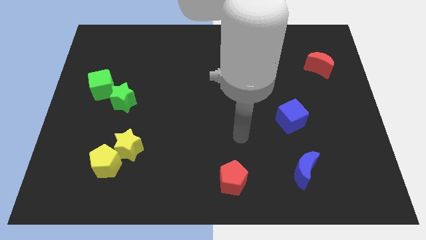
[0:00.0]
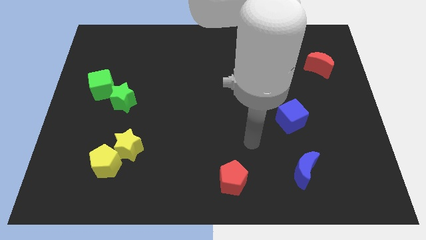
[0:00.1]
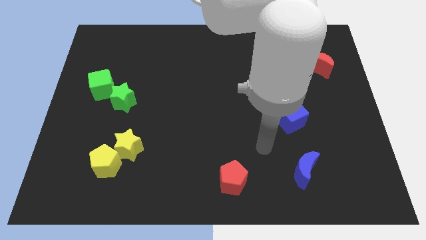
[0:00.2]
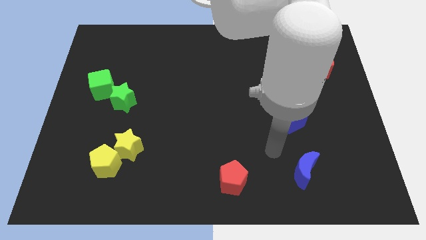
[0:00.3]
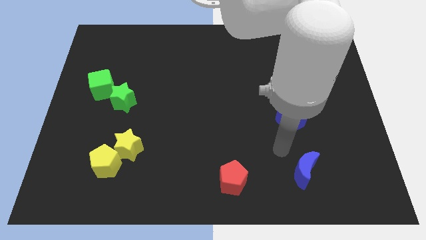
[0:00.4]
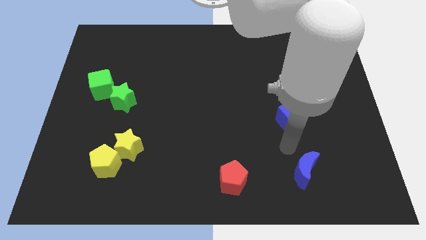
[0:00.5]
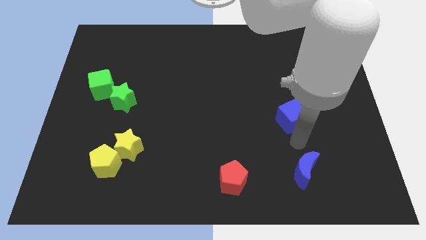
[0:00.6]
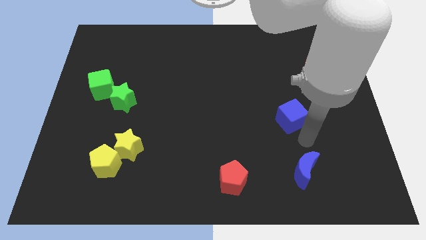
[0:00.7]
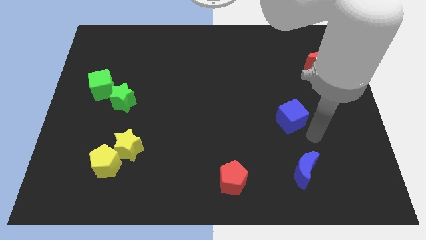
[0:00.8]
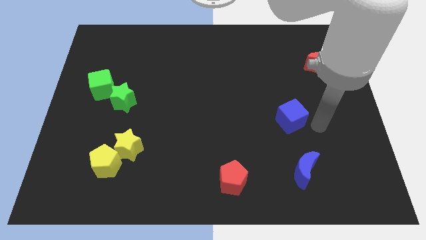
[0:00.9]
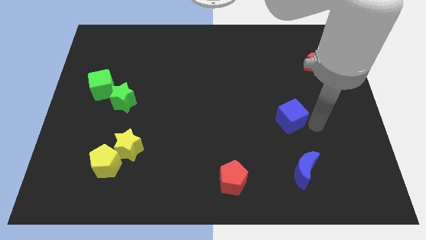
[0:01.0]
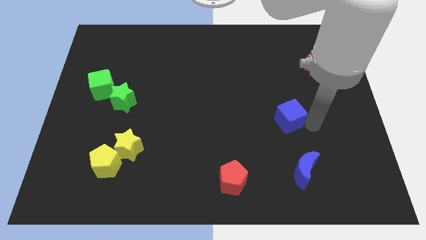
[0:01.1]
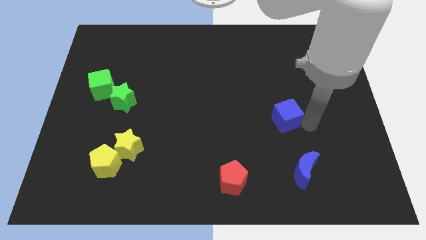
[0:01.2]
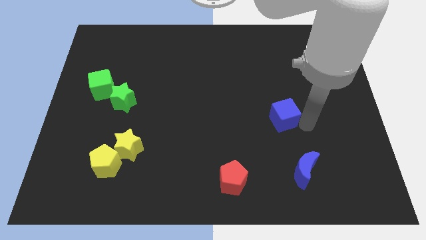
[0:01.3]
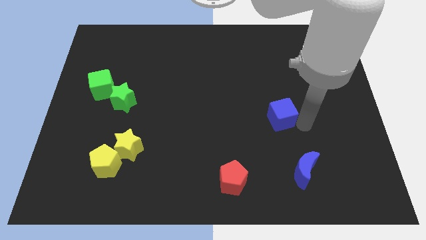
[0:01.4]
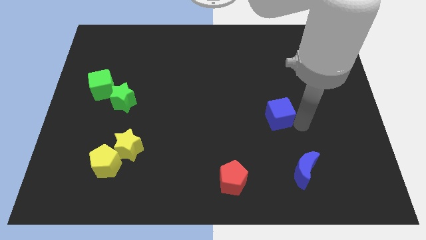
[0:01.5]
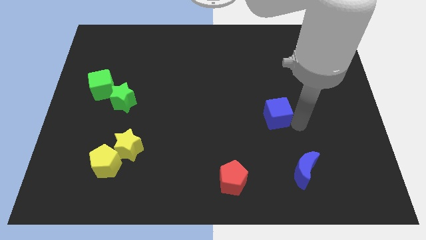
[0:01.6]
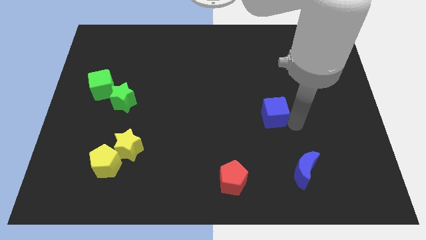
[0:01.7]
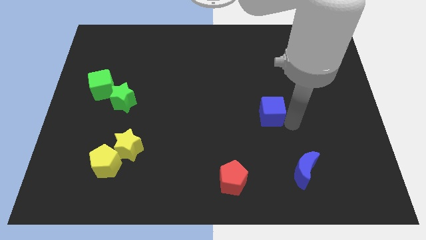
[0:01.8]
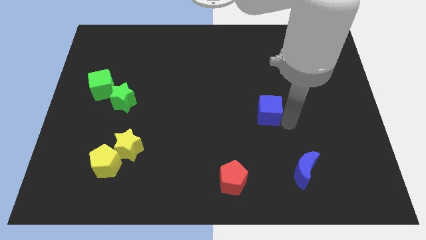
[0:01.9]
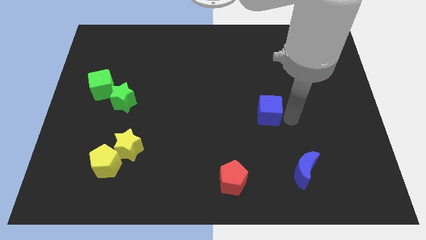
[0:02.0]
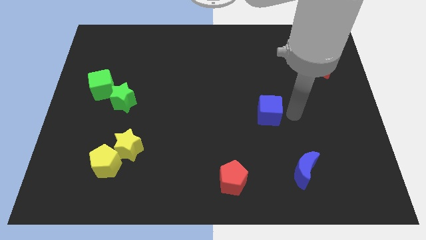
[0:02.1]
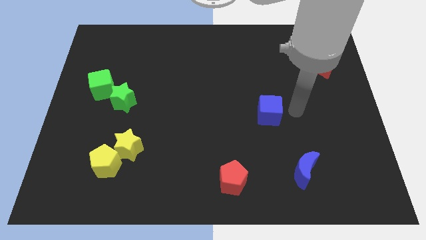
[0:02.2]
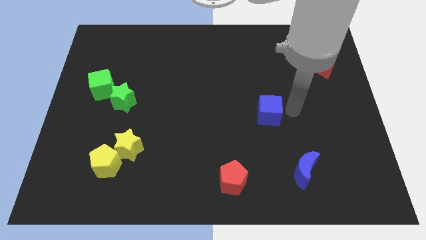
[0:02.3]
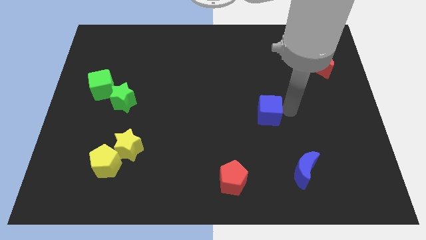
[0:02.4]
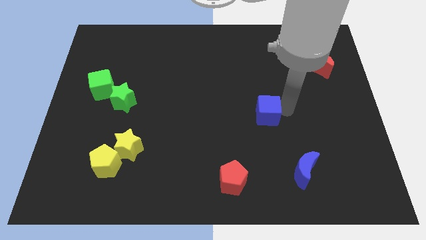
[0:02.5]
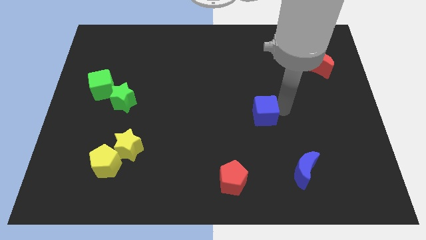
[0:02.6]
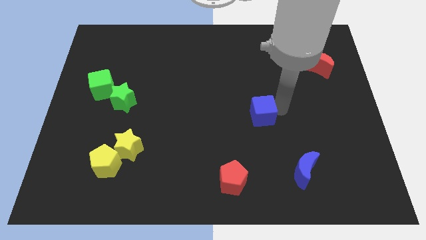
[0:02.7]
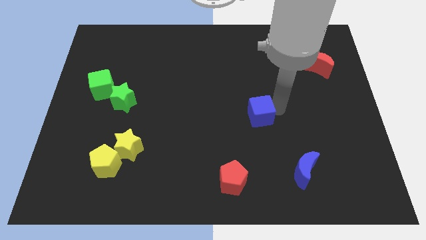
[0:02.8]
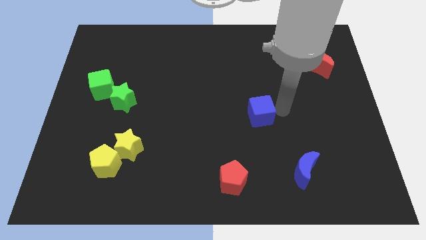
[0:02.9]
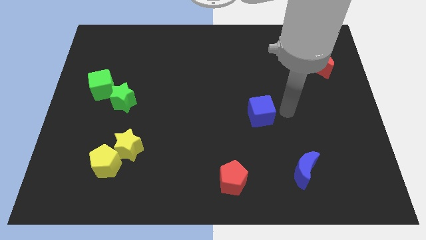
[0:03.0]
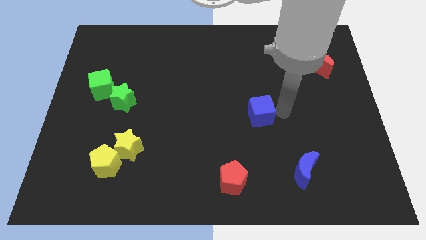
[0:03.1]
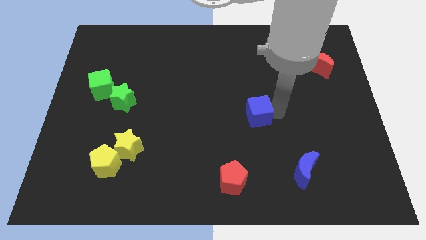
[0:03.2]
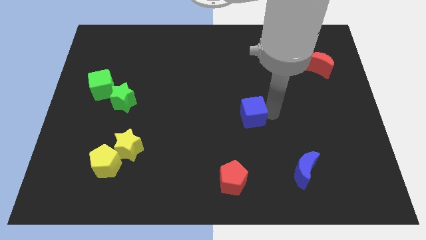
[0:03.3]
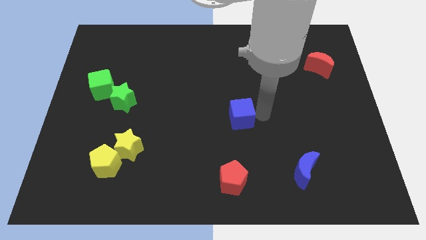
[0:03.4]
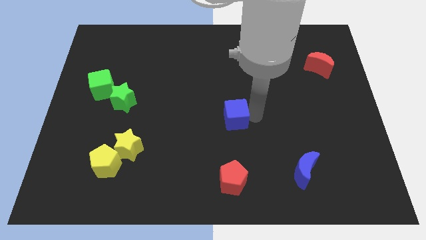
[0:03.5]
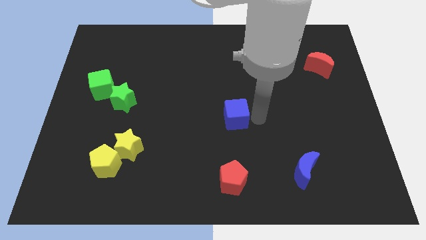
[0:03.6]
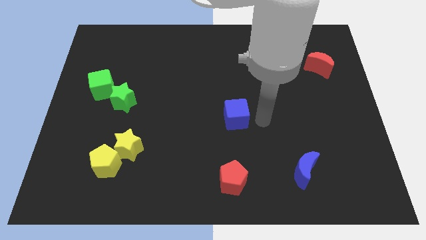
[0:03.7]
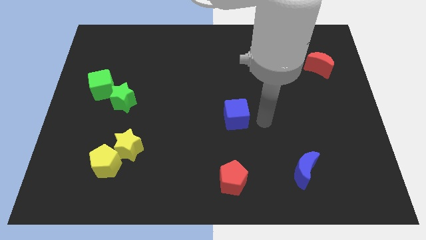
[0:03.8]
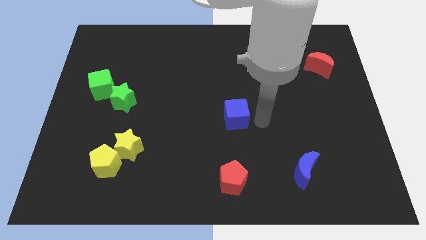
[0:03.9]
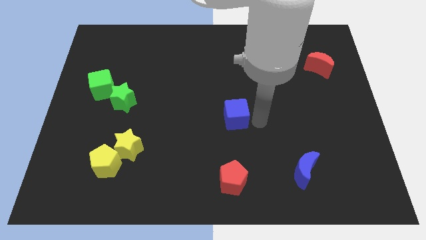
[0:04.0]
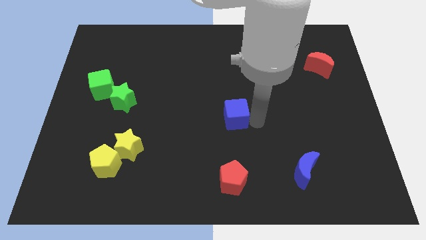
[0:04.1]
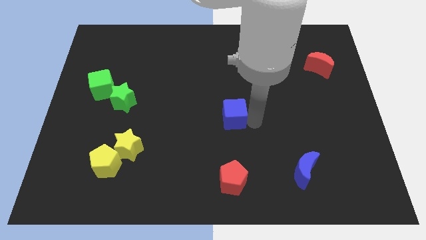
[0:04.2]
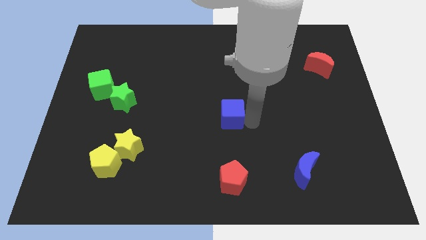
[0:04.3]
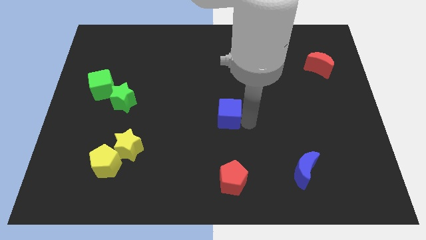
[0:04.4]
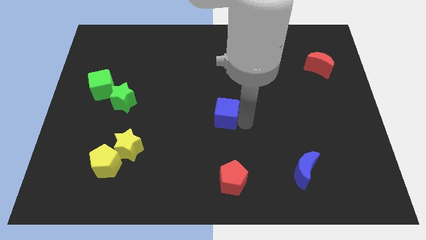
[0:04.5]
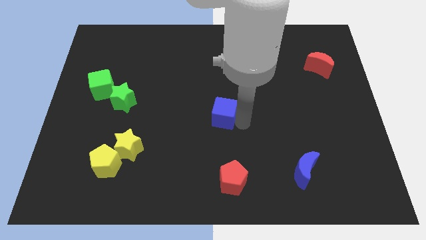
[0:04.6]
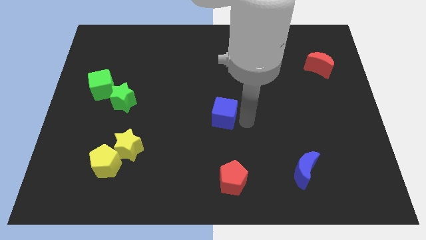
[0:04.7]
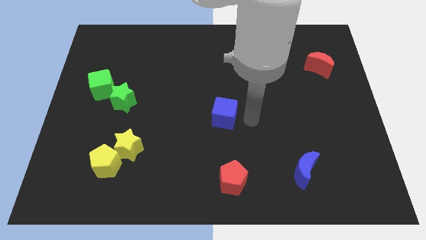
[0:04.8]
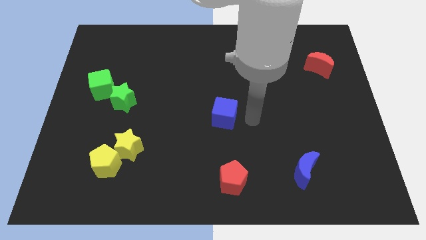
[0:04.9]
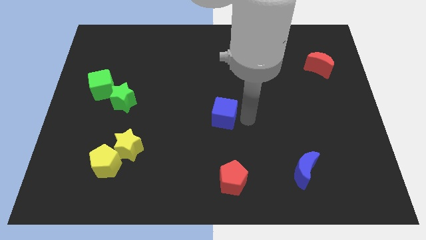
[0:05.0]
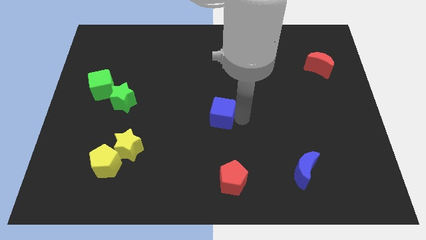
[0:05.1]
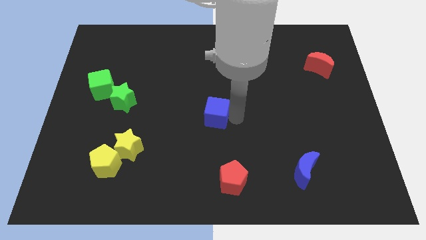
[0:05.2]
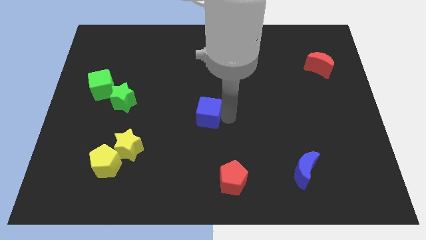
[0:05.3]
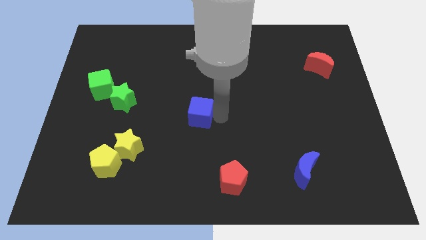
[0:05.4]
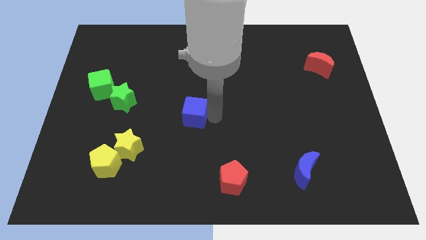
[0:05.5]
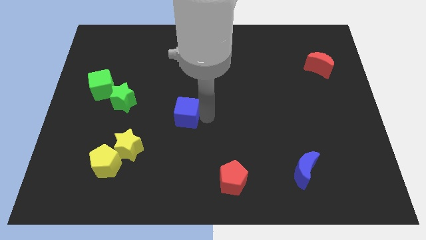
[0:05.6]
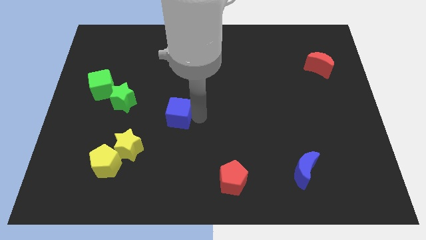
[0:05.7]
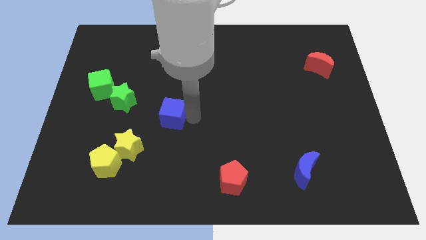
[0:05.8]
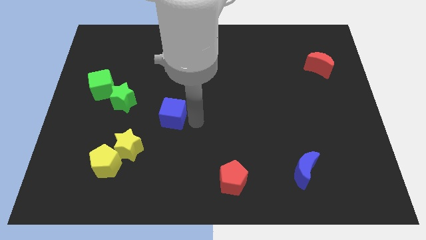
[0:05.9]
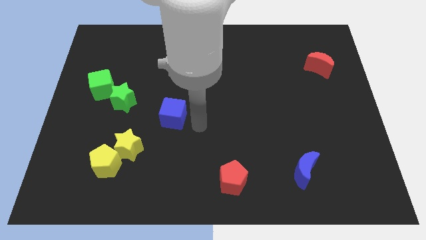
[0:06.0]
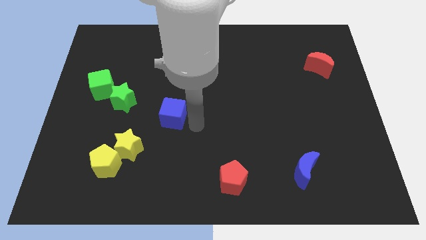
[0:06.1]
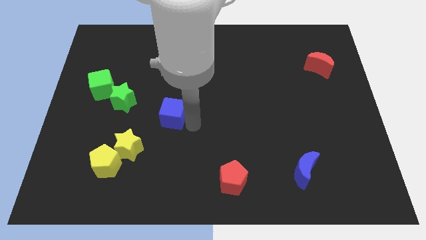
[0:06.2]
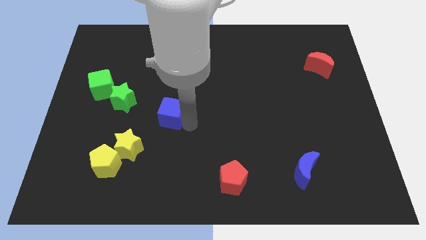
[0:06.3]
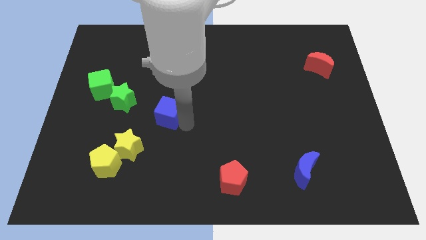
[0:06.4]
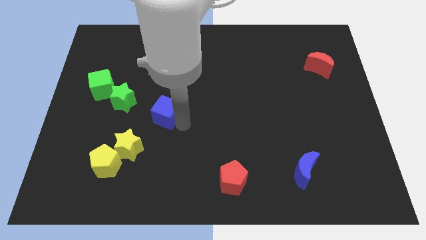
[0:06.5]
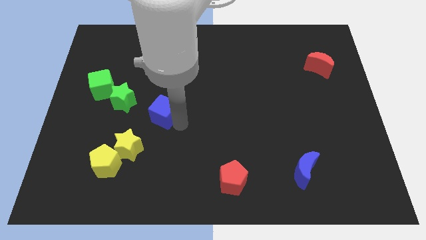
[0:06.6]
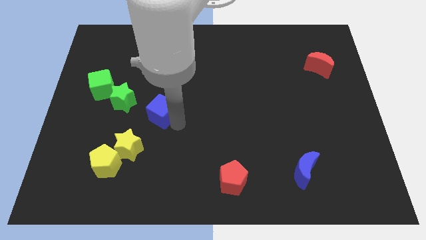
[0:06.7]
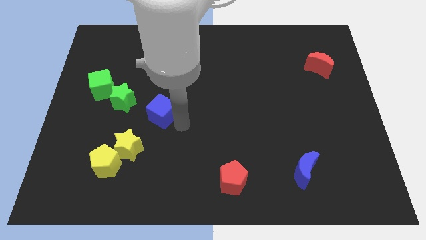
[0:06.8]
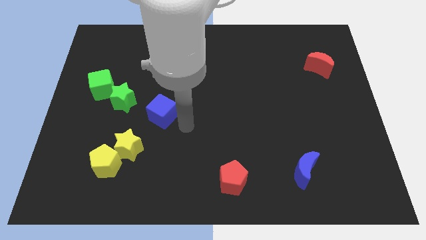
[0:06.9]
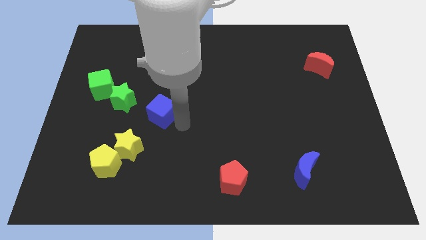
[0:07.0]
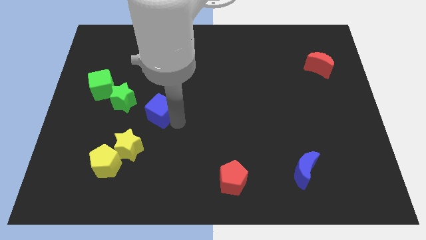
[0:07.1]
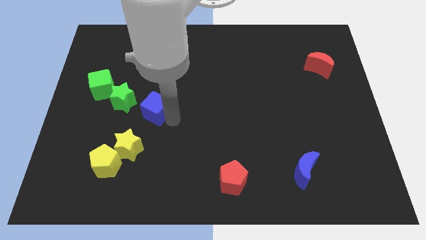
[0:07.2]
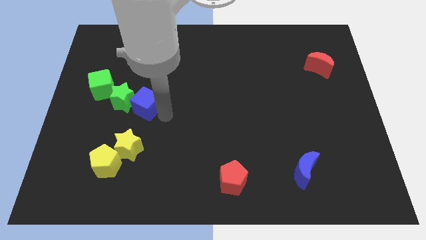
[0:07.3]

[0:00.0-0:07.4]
put the blue cube to the green star
